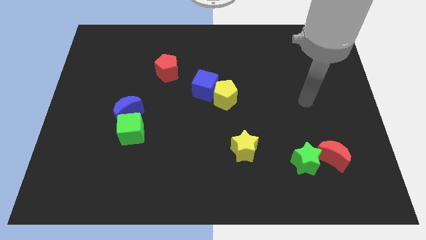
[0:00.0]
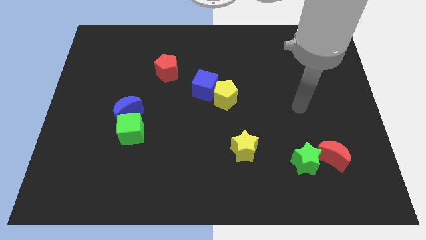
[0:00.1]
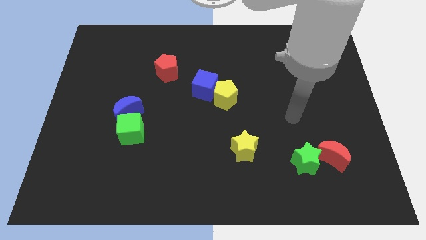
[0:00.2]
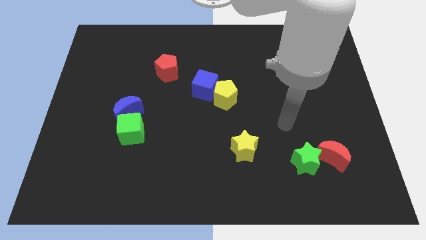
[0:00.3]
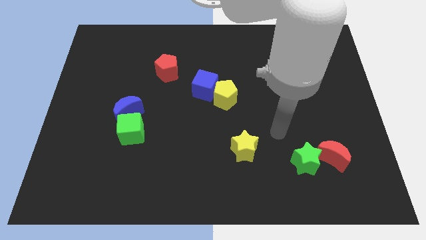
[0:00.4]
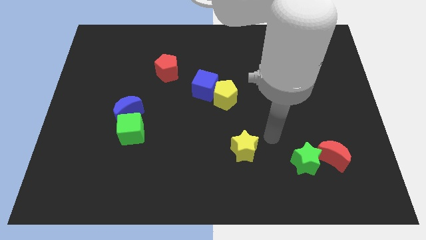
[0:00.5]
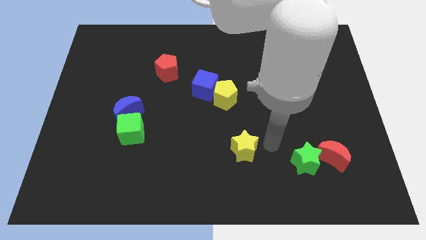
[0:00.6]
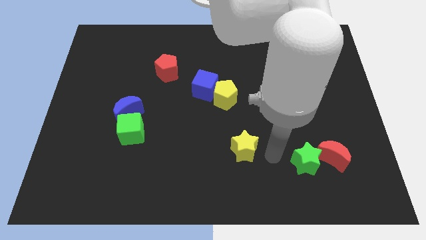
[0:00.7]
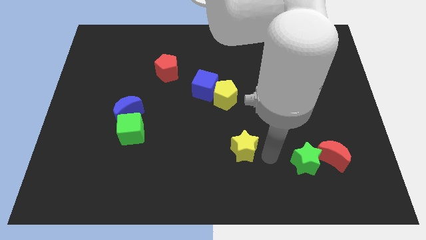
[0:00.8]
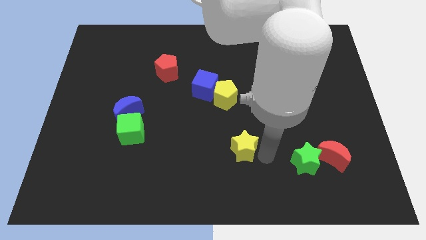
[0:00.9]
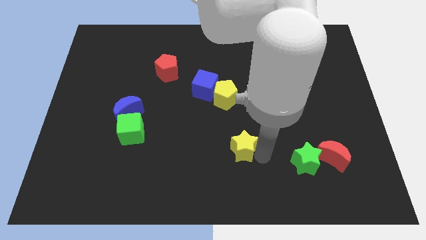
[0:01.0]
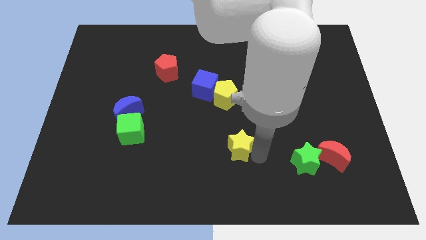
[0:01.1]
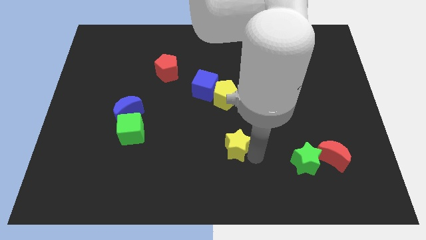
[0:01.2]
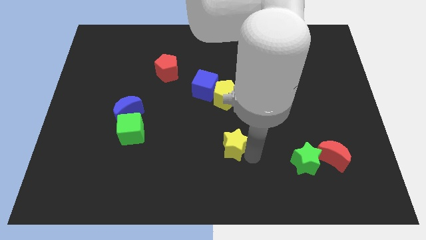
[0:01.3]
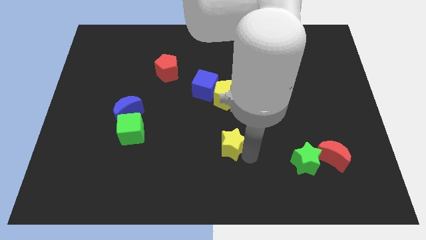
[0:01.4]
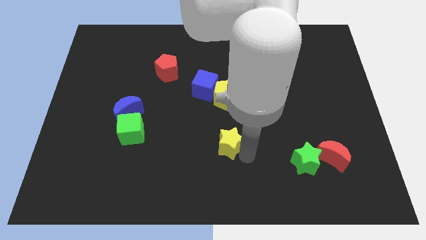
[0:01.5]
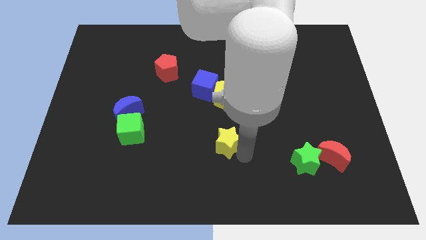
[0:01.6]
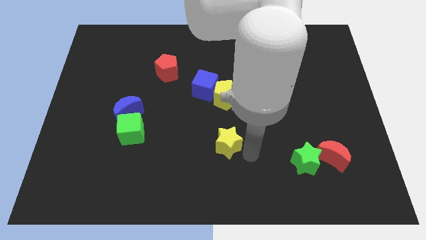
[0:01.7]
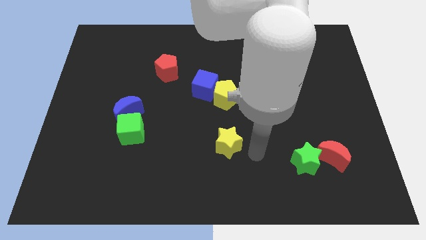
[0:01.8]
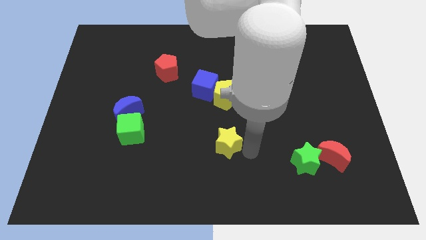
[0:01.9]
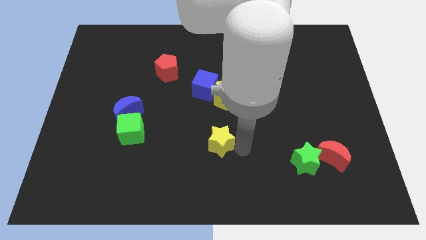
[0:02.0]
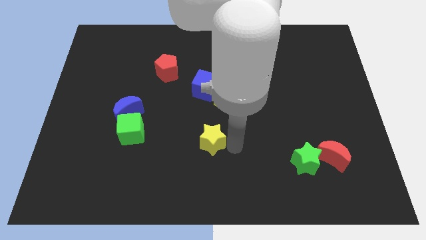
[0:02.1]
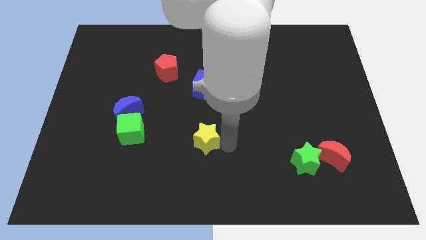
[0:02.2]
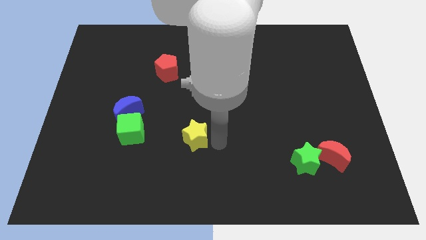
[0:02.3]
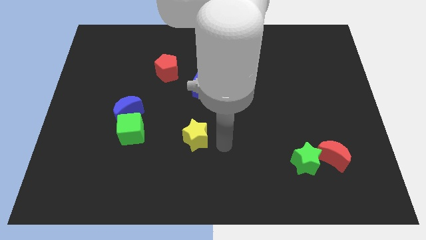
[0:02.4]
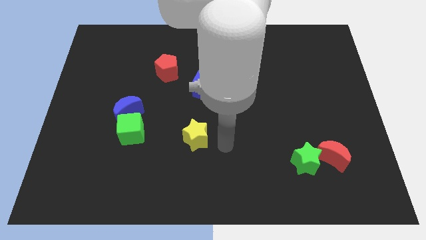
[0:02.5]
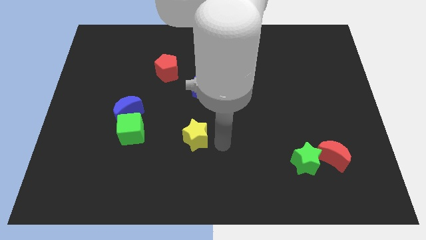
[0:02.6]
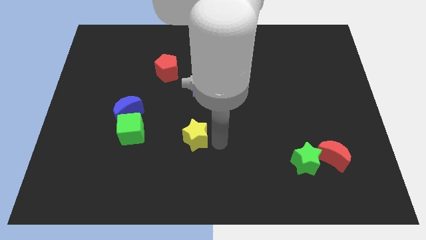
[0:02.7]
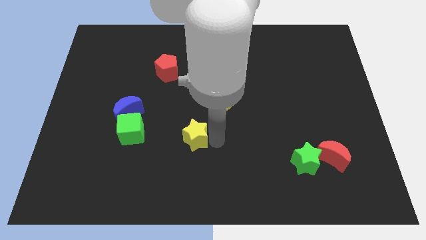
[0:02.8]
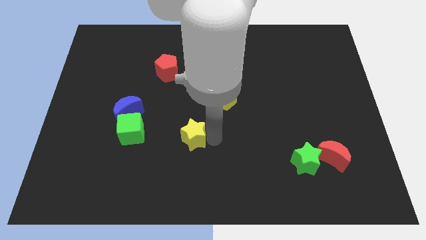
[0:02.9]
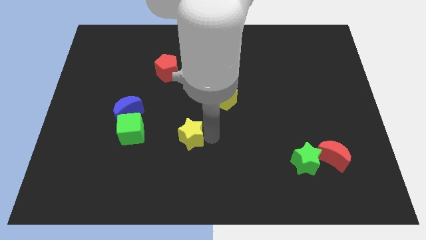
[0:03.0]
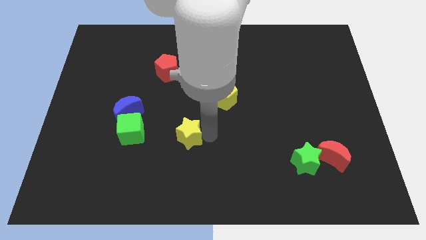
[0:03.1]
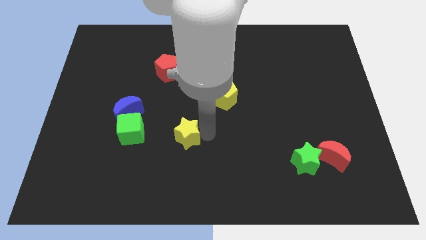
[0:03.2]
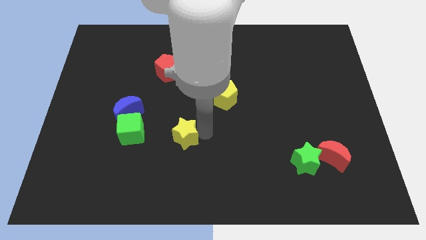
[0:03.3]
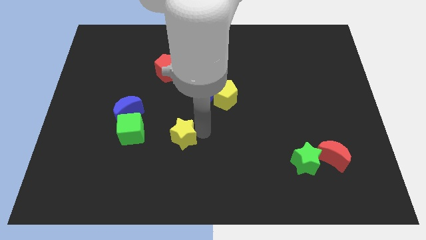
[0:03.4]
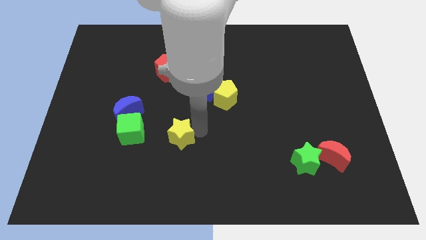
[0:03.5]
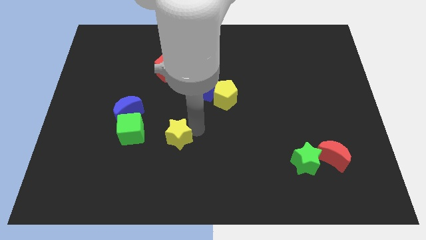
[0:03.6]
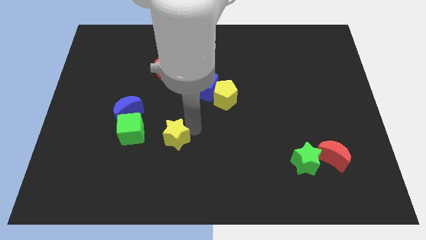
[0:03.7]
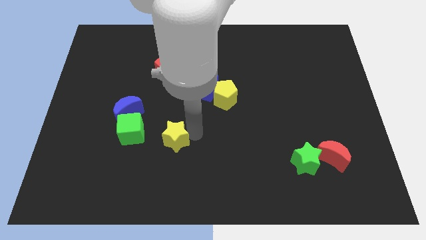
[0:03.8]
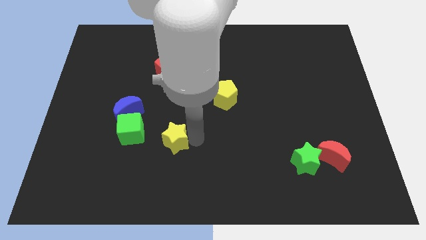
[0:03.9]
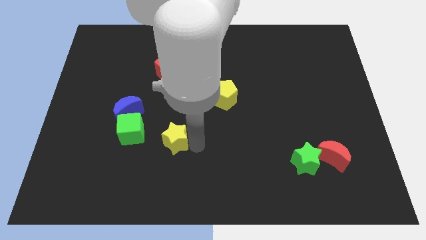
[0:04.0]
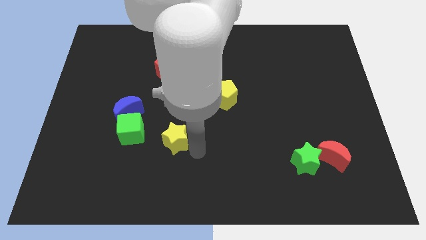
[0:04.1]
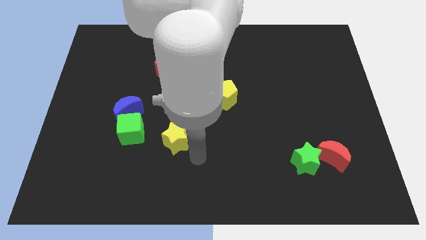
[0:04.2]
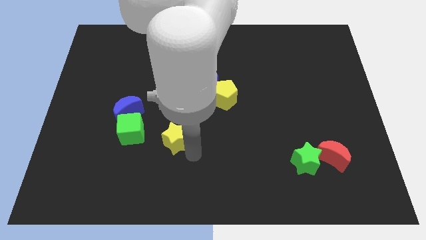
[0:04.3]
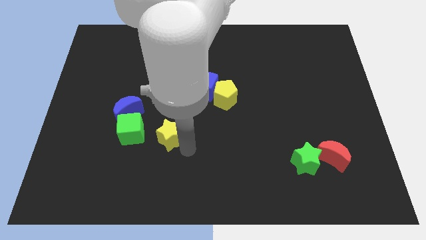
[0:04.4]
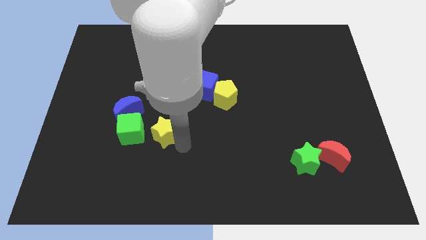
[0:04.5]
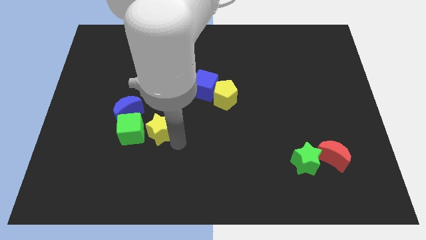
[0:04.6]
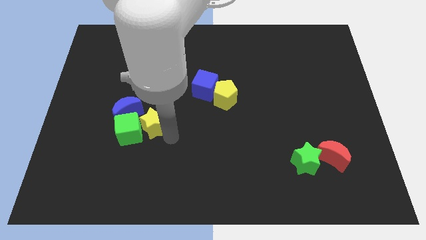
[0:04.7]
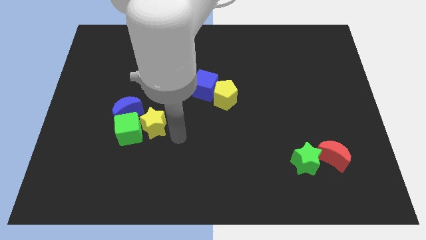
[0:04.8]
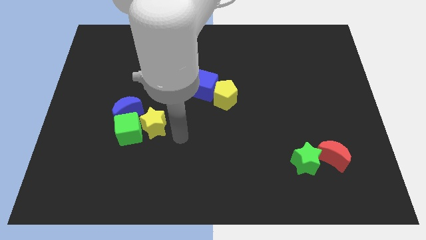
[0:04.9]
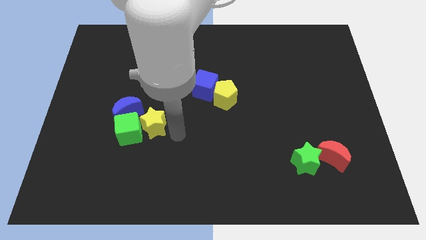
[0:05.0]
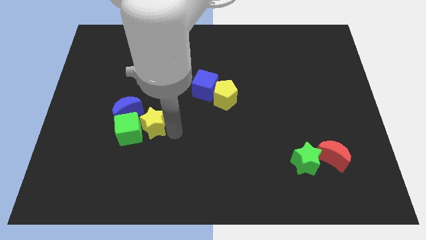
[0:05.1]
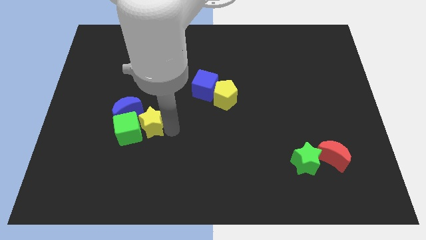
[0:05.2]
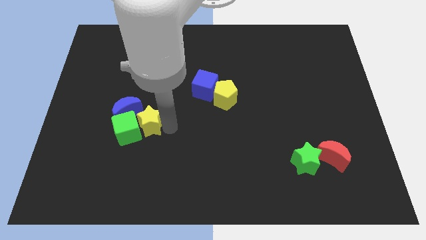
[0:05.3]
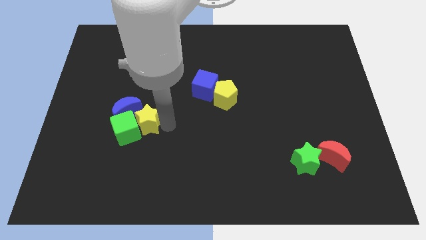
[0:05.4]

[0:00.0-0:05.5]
move the yellow star towards the blue moon

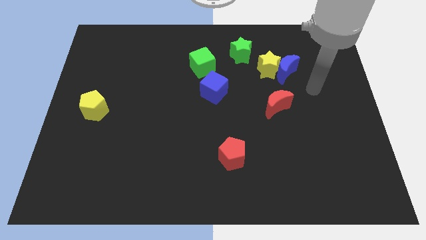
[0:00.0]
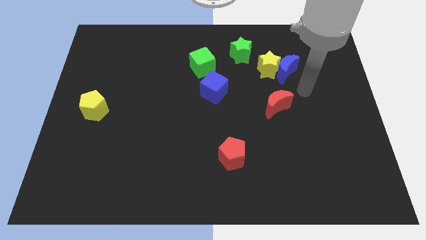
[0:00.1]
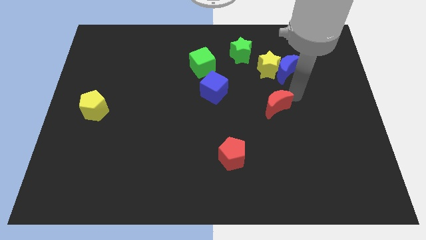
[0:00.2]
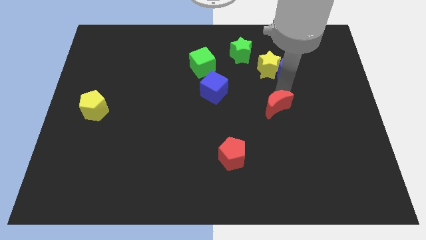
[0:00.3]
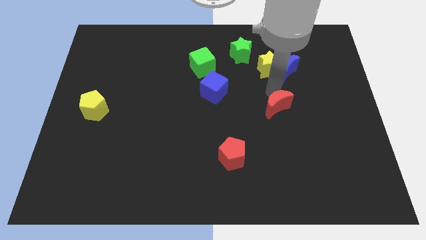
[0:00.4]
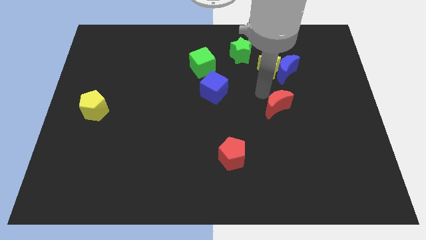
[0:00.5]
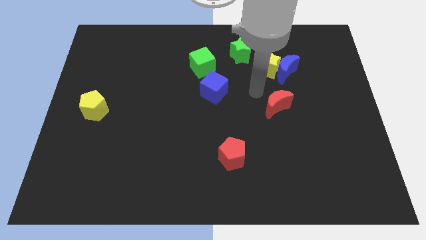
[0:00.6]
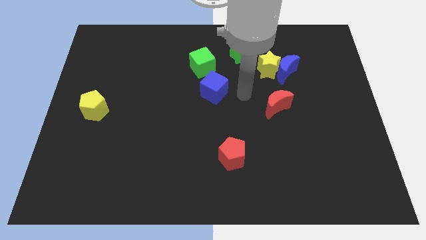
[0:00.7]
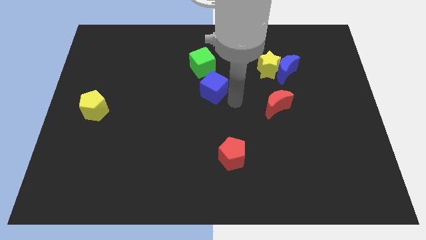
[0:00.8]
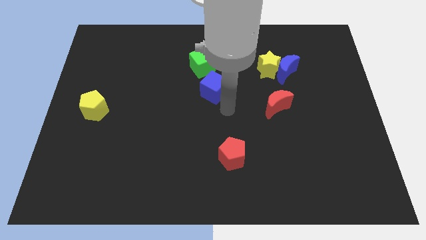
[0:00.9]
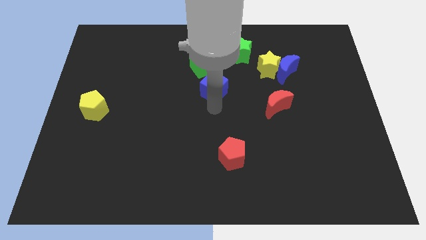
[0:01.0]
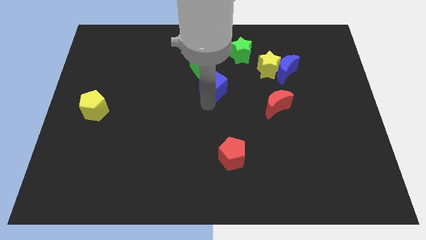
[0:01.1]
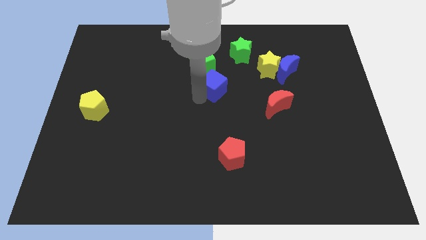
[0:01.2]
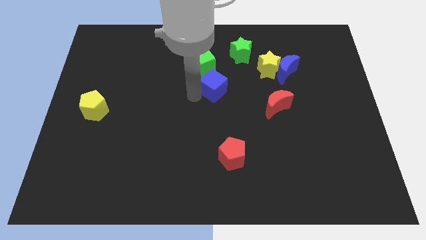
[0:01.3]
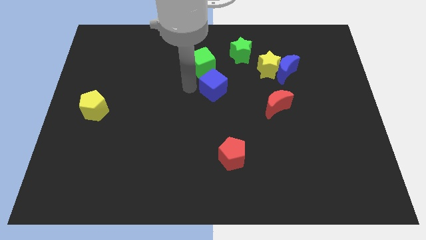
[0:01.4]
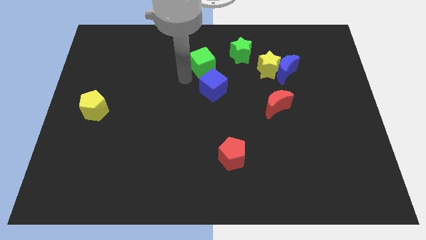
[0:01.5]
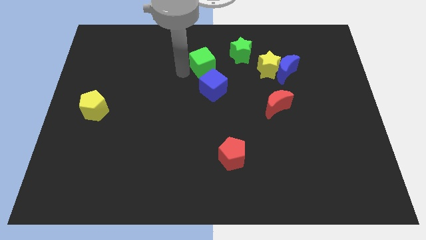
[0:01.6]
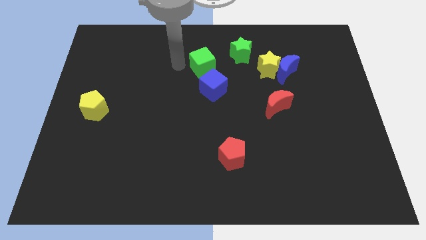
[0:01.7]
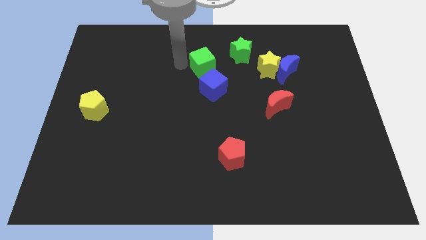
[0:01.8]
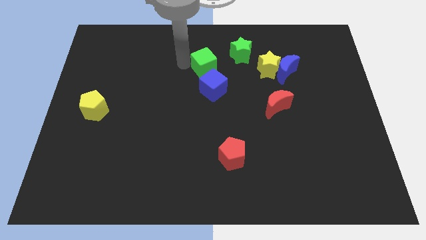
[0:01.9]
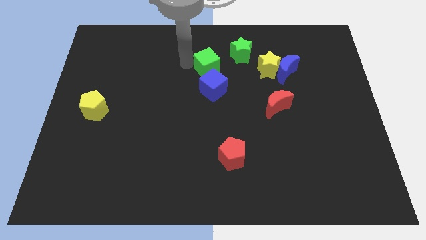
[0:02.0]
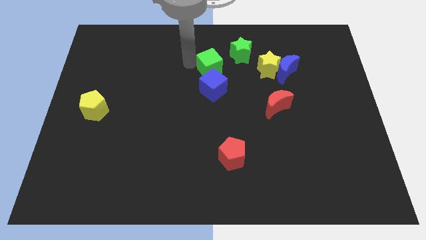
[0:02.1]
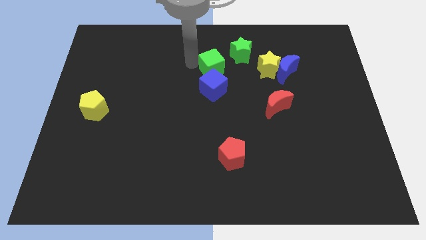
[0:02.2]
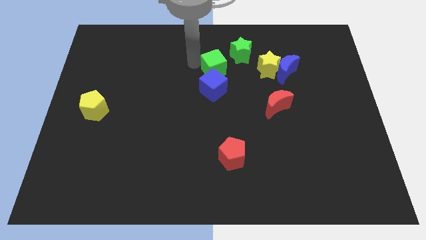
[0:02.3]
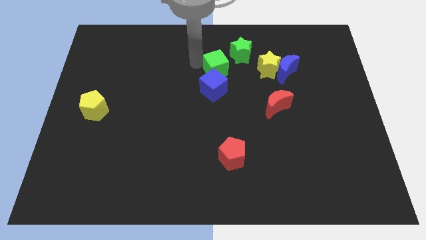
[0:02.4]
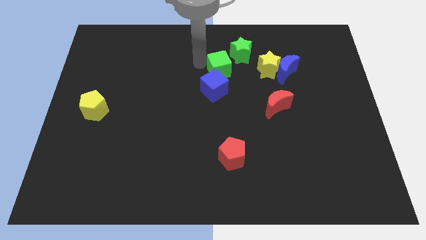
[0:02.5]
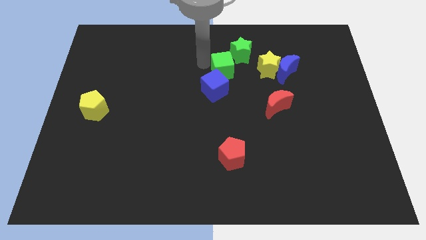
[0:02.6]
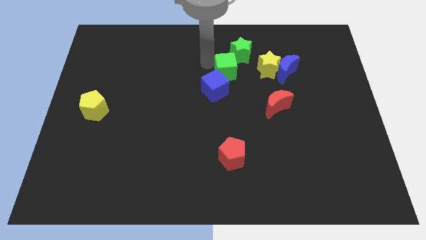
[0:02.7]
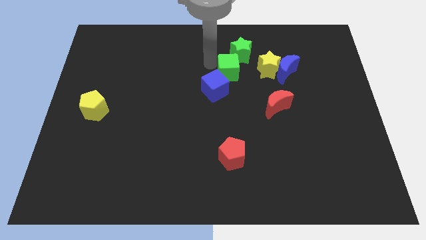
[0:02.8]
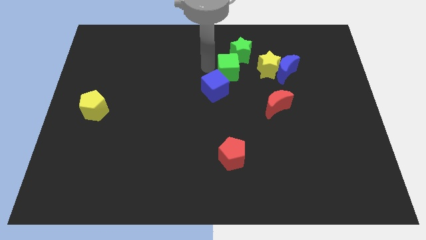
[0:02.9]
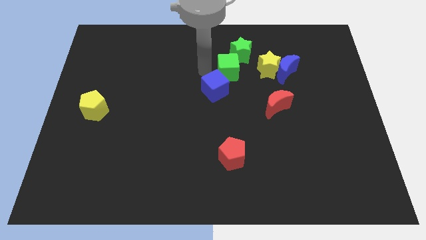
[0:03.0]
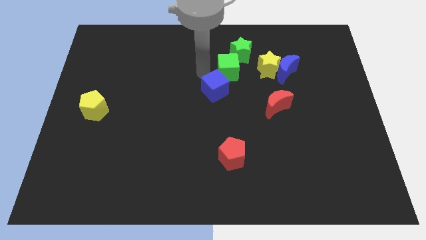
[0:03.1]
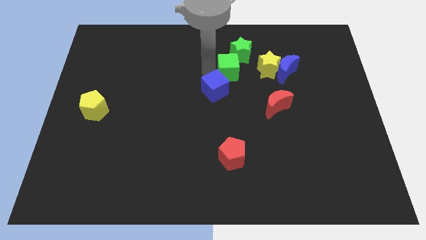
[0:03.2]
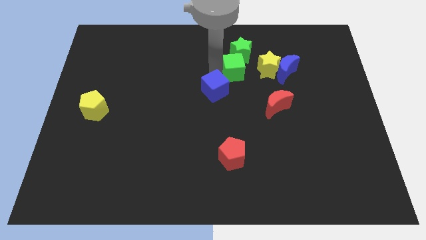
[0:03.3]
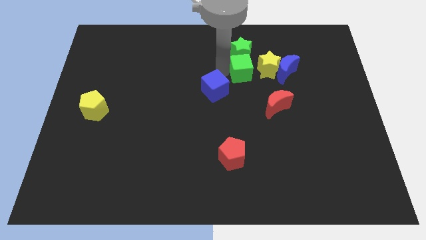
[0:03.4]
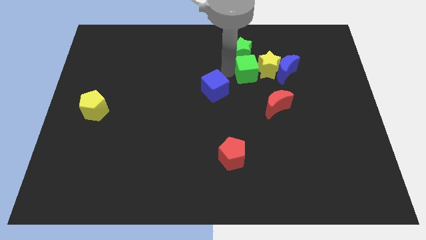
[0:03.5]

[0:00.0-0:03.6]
move the green cube next to the yellow star
